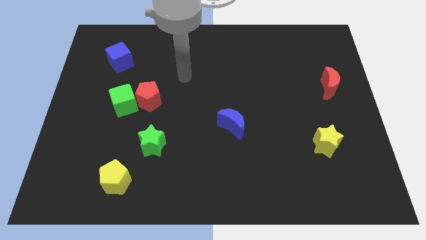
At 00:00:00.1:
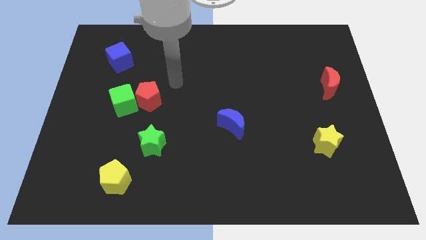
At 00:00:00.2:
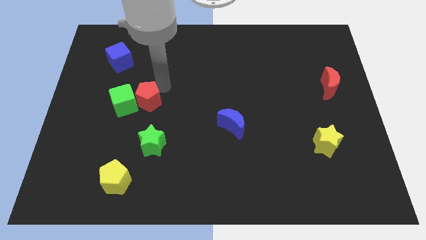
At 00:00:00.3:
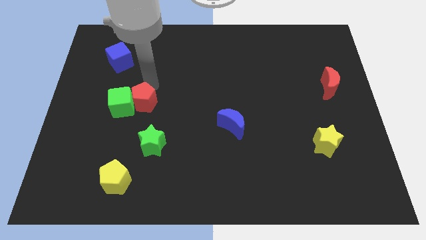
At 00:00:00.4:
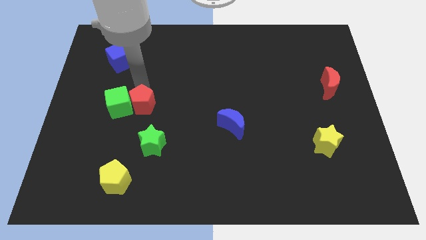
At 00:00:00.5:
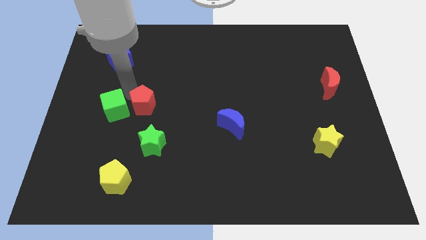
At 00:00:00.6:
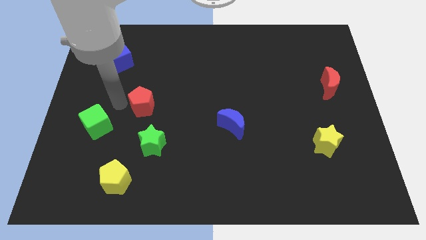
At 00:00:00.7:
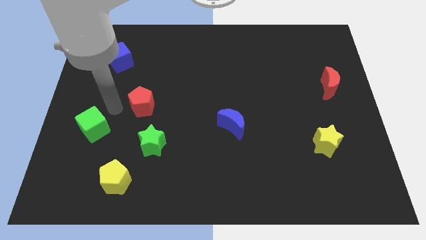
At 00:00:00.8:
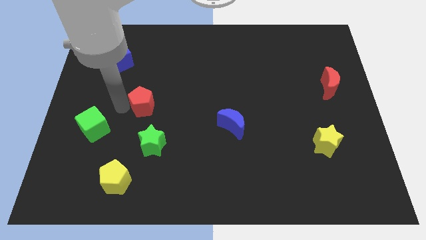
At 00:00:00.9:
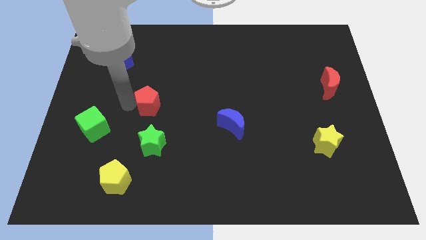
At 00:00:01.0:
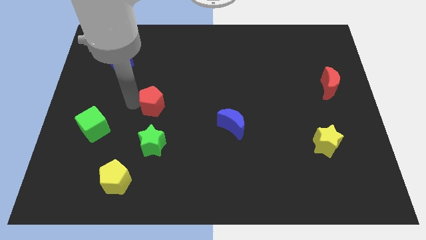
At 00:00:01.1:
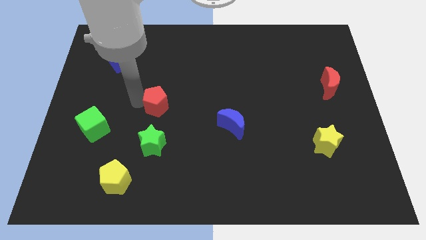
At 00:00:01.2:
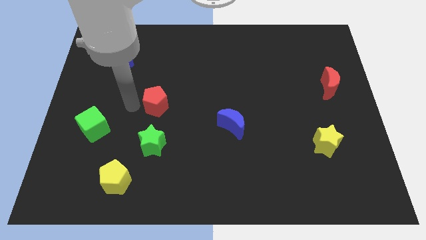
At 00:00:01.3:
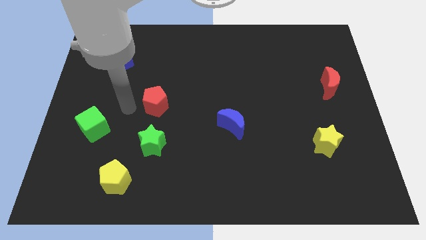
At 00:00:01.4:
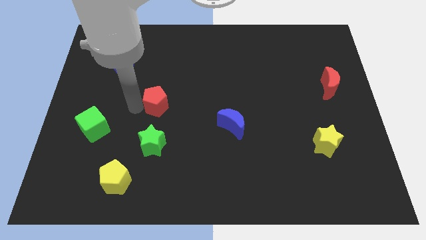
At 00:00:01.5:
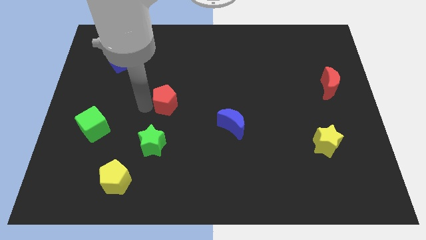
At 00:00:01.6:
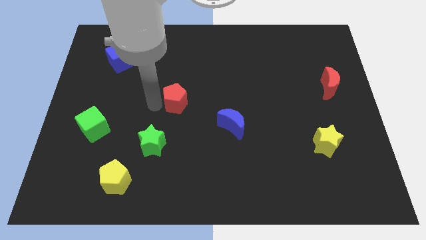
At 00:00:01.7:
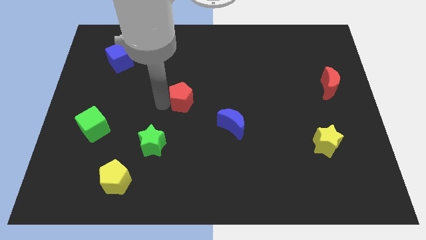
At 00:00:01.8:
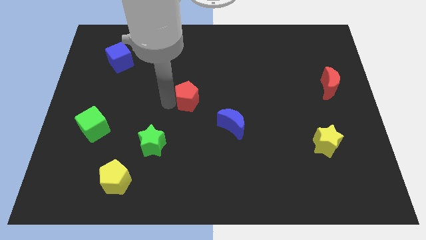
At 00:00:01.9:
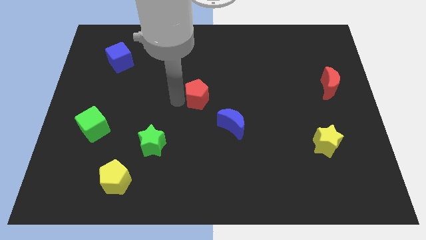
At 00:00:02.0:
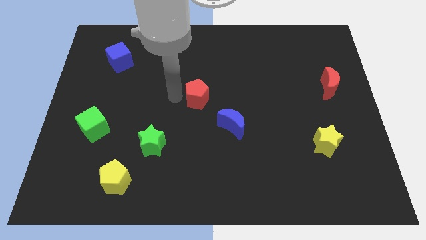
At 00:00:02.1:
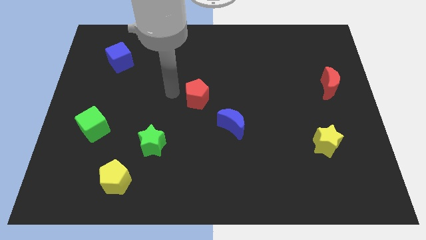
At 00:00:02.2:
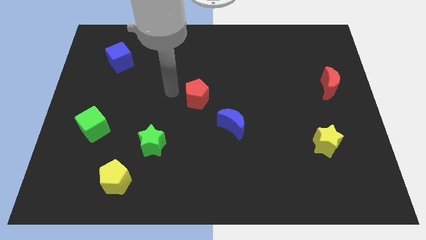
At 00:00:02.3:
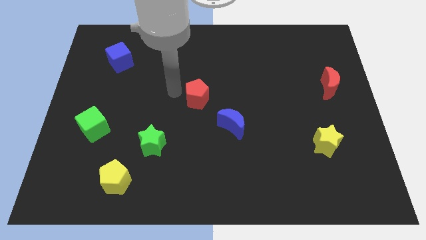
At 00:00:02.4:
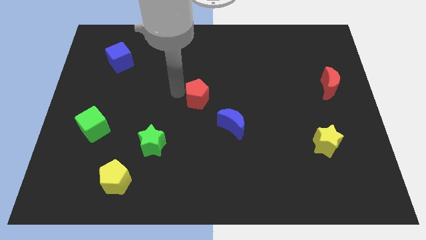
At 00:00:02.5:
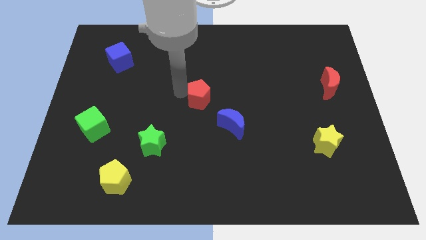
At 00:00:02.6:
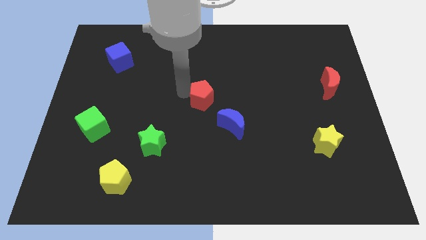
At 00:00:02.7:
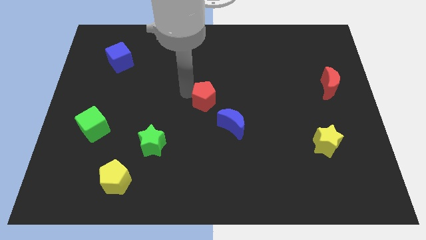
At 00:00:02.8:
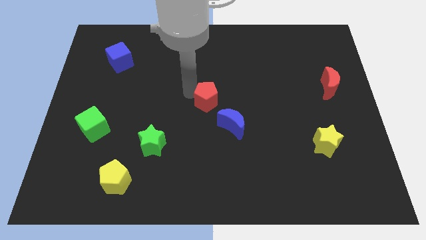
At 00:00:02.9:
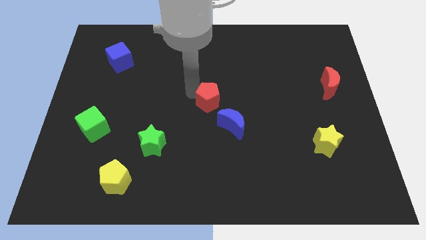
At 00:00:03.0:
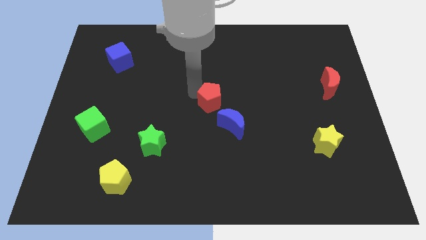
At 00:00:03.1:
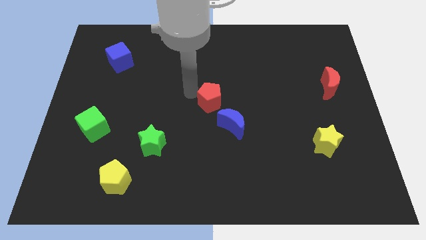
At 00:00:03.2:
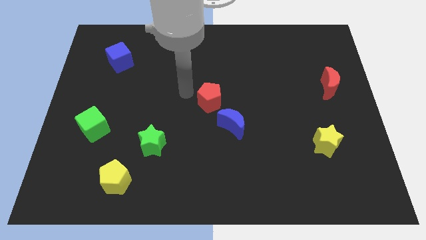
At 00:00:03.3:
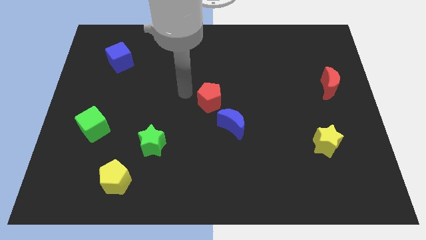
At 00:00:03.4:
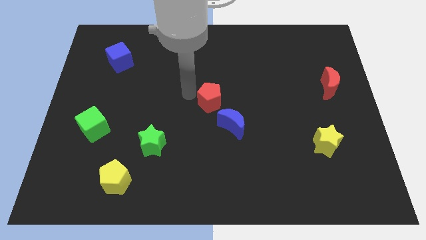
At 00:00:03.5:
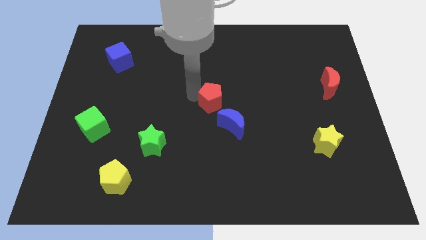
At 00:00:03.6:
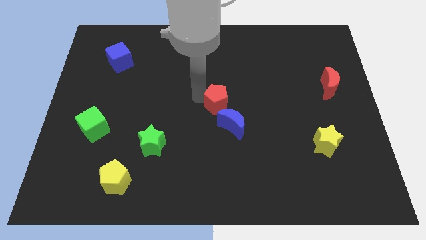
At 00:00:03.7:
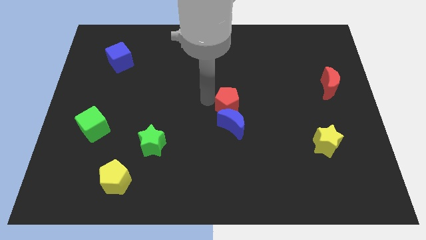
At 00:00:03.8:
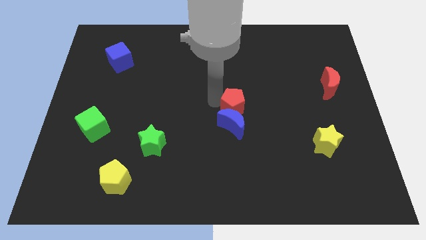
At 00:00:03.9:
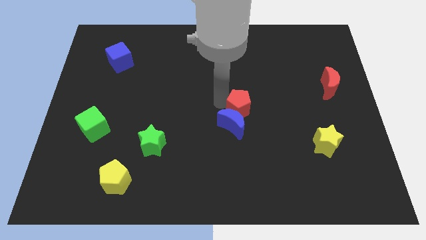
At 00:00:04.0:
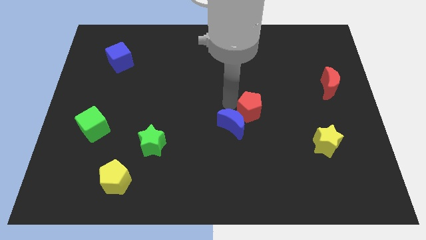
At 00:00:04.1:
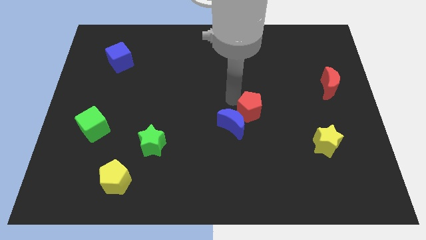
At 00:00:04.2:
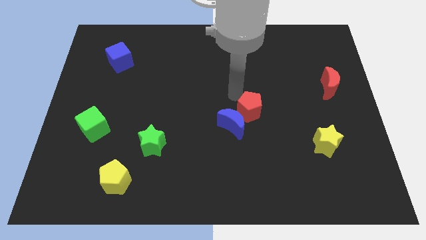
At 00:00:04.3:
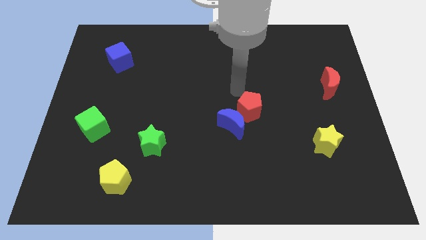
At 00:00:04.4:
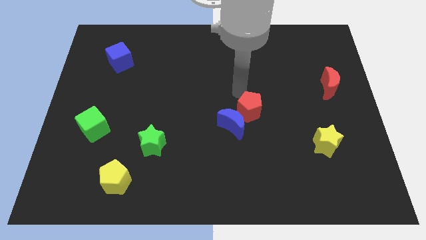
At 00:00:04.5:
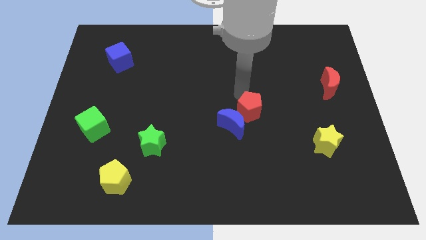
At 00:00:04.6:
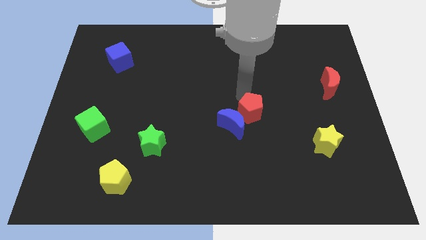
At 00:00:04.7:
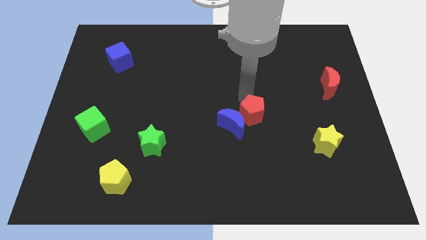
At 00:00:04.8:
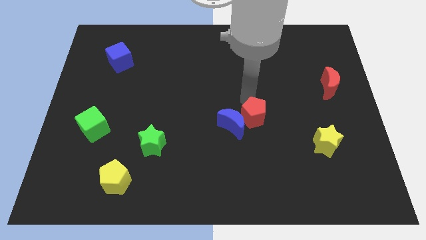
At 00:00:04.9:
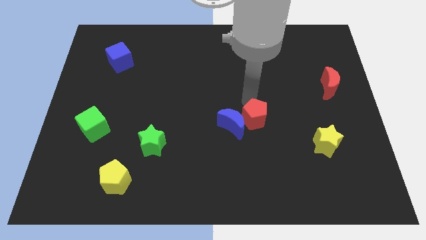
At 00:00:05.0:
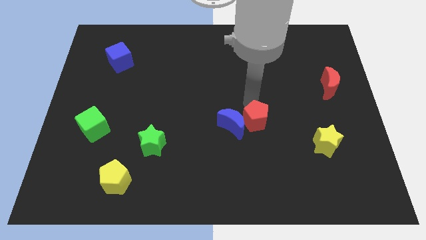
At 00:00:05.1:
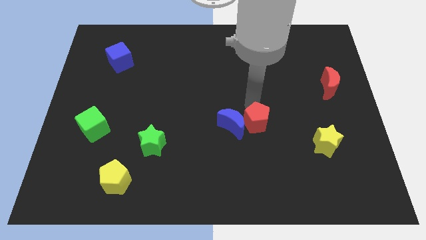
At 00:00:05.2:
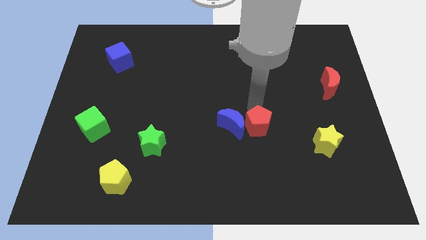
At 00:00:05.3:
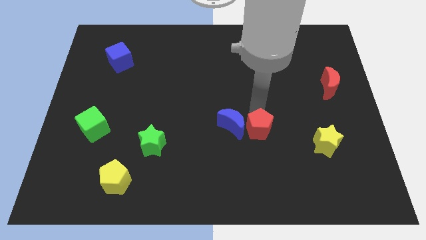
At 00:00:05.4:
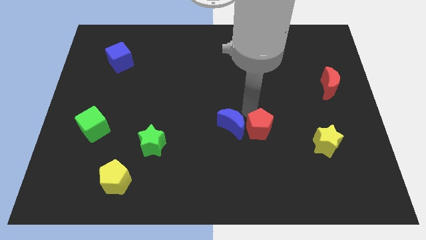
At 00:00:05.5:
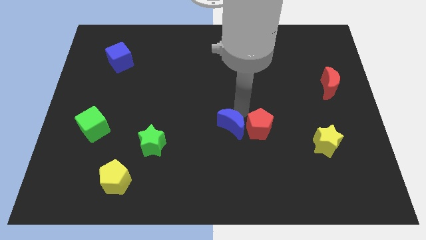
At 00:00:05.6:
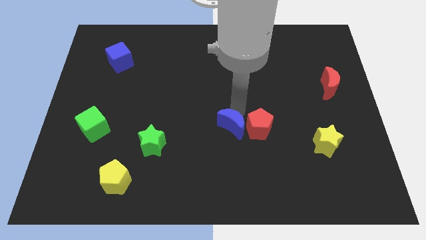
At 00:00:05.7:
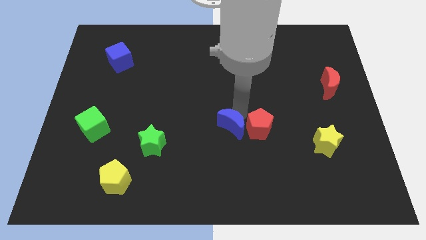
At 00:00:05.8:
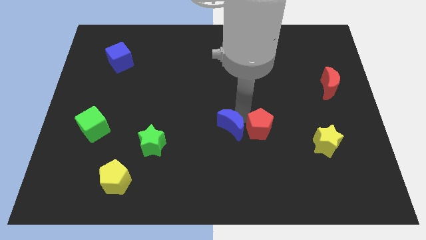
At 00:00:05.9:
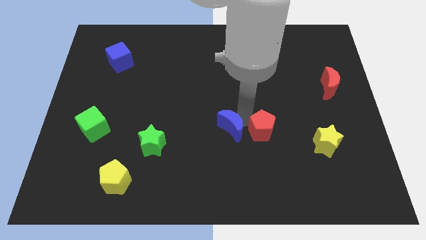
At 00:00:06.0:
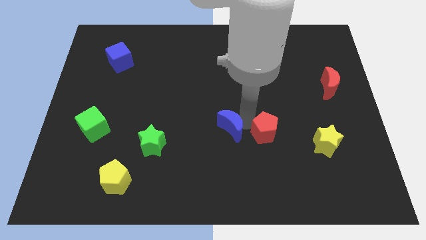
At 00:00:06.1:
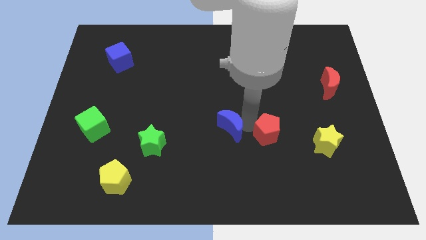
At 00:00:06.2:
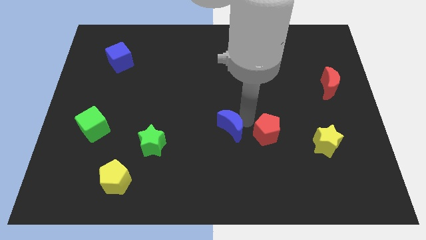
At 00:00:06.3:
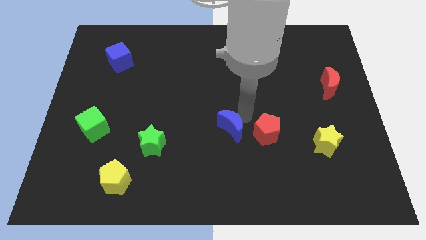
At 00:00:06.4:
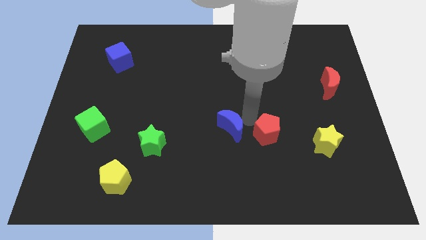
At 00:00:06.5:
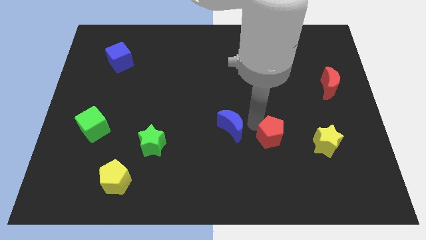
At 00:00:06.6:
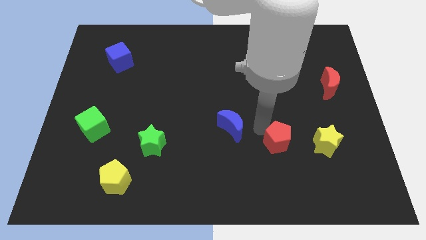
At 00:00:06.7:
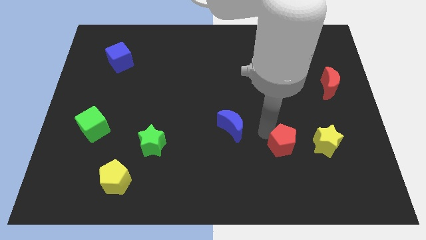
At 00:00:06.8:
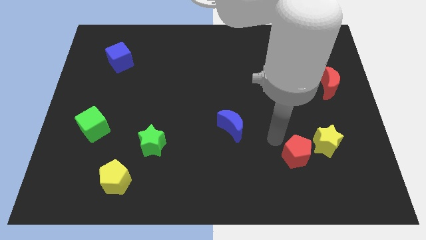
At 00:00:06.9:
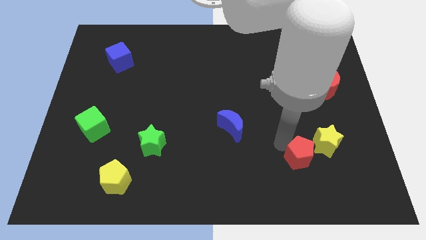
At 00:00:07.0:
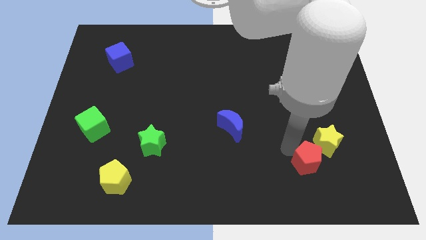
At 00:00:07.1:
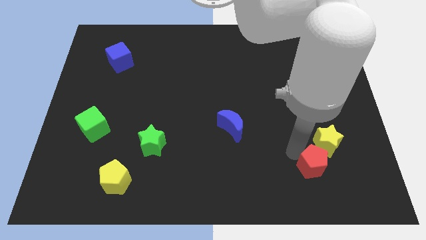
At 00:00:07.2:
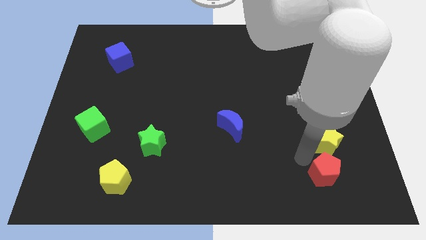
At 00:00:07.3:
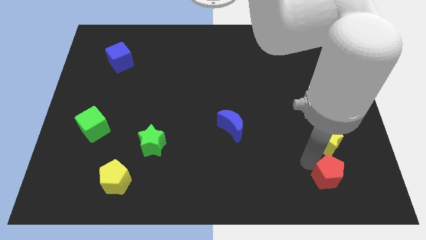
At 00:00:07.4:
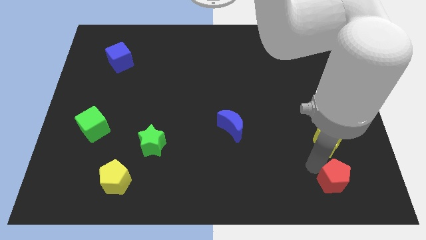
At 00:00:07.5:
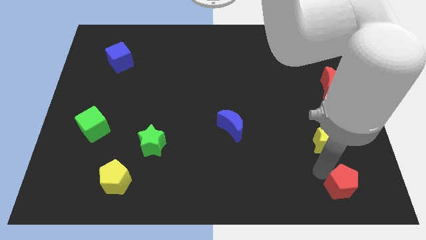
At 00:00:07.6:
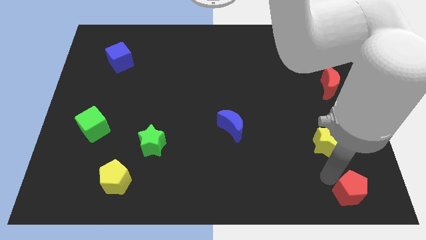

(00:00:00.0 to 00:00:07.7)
put the red pentagon to the lower right corner
